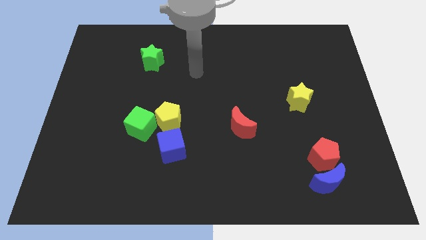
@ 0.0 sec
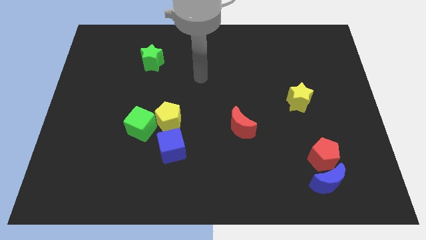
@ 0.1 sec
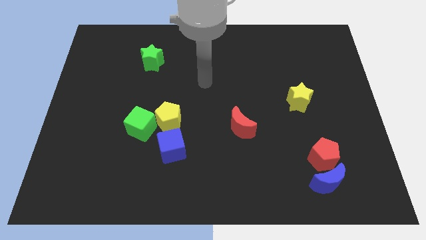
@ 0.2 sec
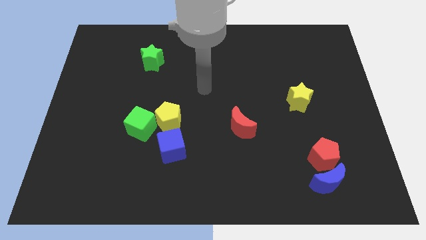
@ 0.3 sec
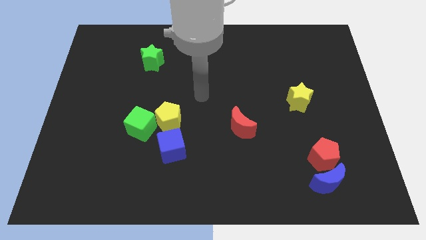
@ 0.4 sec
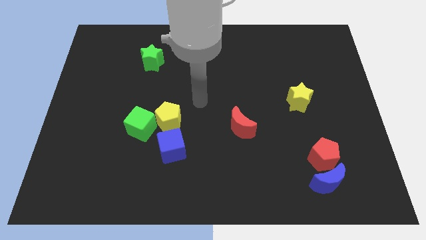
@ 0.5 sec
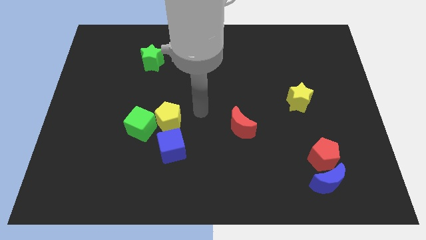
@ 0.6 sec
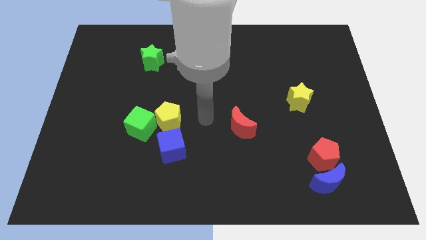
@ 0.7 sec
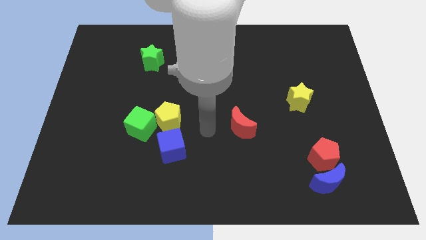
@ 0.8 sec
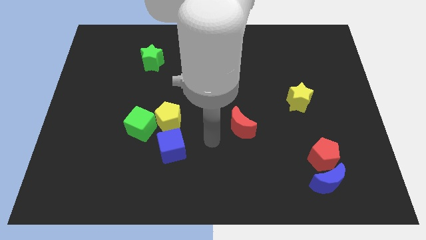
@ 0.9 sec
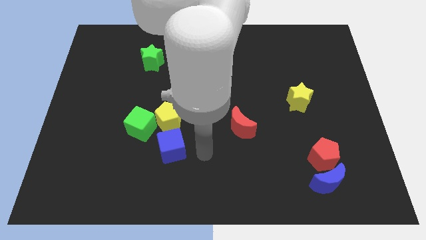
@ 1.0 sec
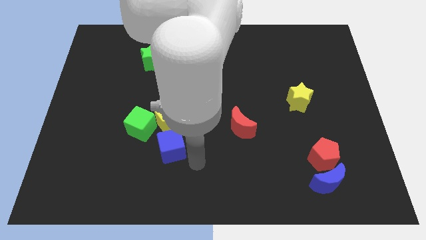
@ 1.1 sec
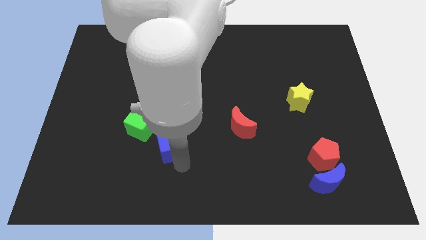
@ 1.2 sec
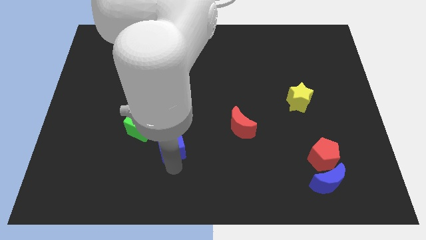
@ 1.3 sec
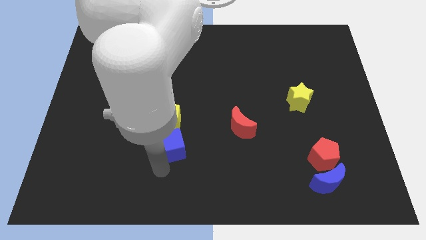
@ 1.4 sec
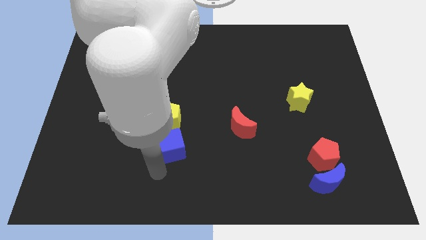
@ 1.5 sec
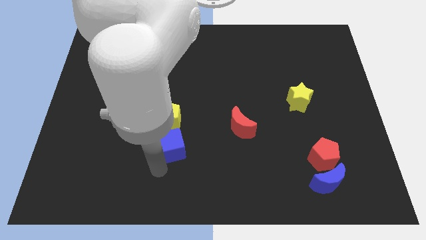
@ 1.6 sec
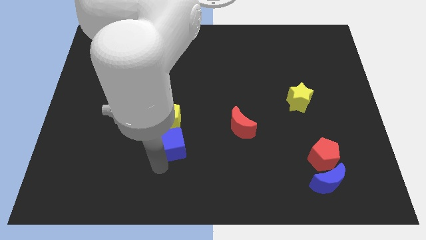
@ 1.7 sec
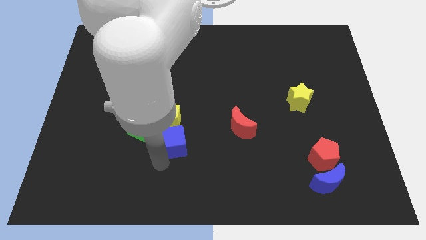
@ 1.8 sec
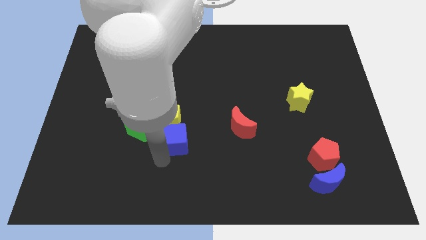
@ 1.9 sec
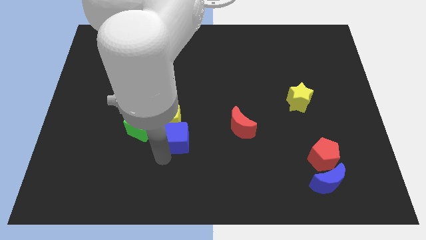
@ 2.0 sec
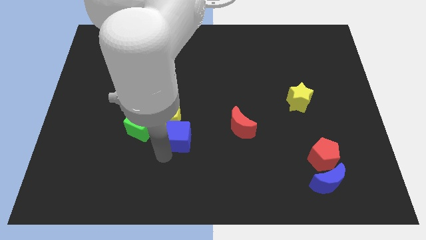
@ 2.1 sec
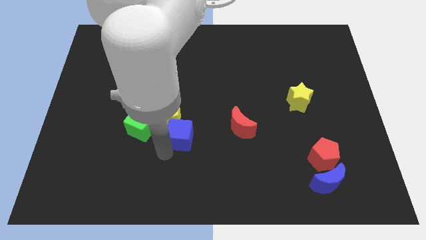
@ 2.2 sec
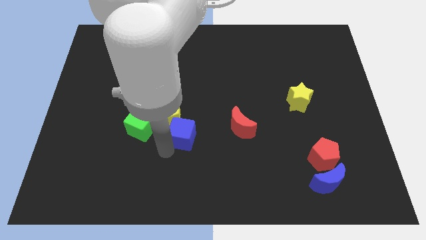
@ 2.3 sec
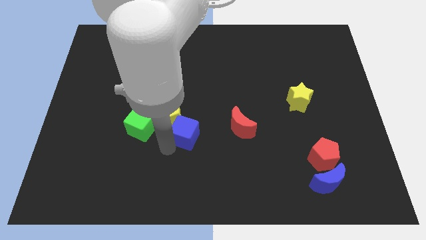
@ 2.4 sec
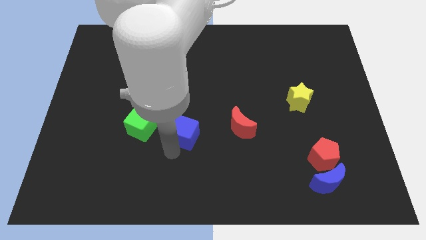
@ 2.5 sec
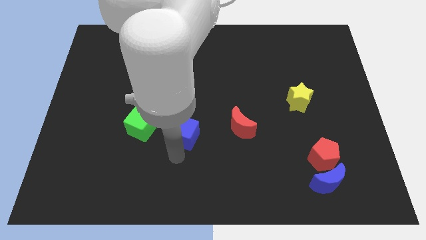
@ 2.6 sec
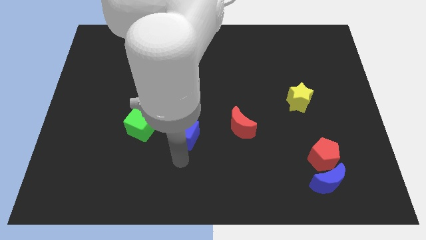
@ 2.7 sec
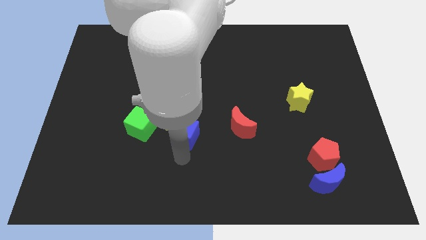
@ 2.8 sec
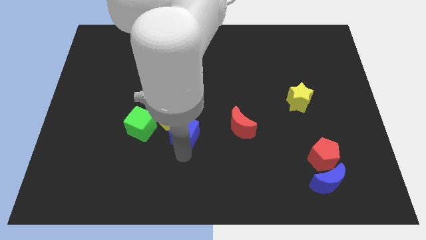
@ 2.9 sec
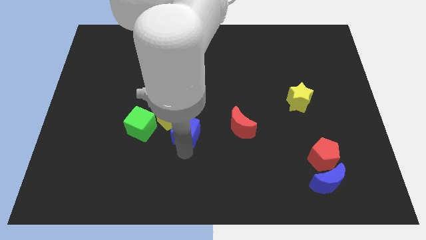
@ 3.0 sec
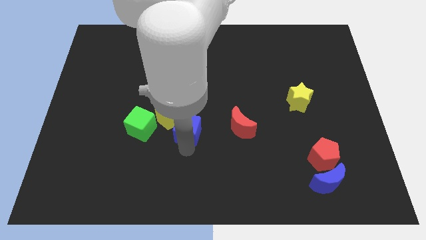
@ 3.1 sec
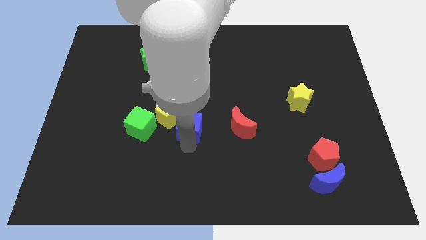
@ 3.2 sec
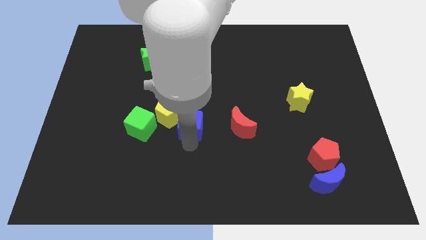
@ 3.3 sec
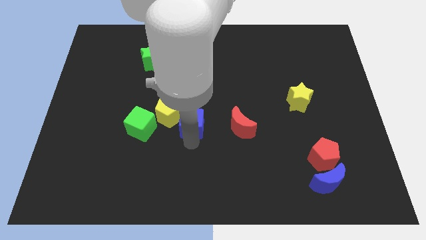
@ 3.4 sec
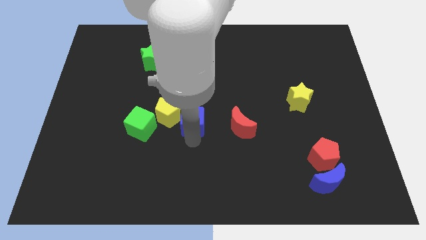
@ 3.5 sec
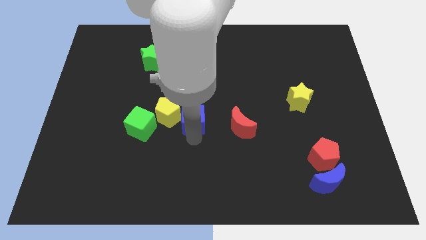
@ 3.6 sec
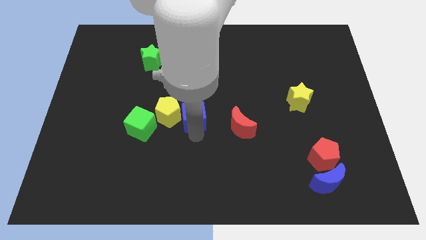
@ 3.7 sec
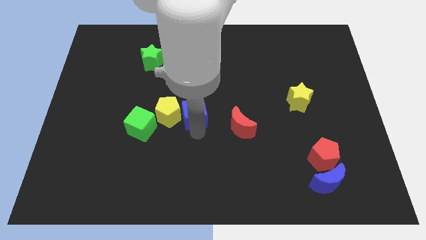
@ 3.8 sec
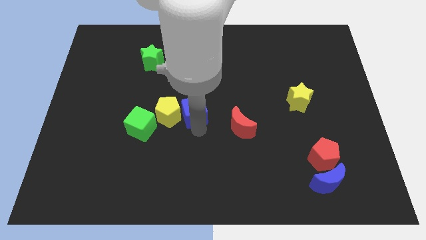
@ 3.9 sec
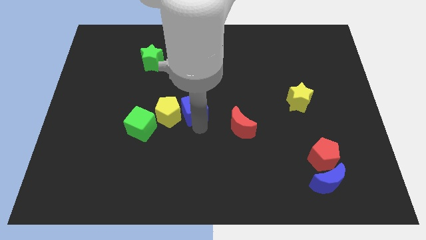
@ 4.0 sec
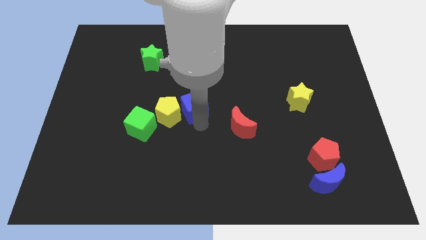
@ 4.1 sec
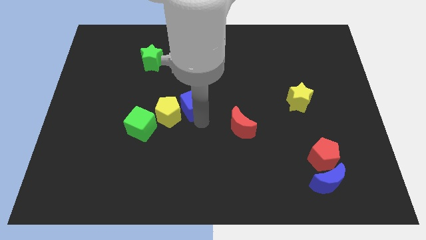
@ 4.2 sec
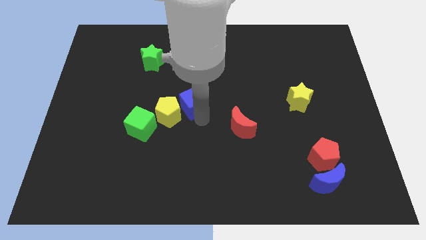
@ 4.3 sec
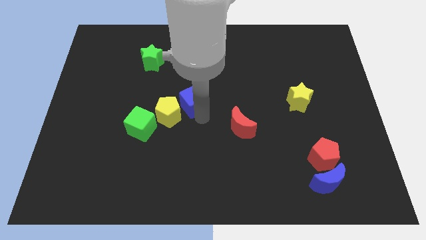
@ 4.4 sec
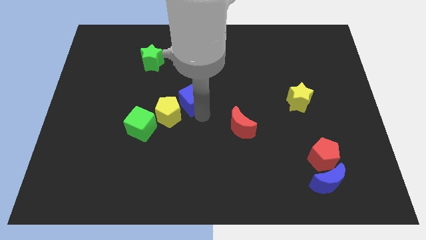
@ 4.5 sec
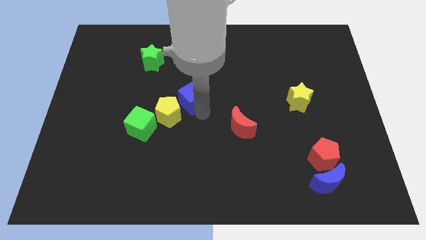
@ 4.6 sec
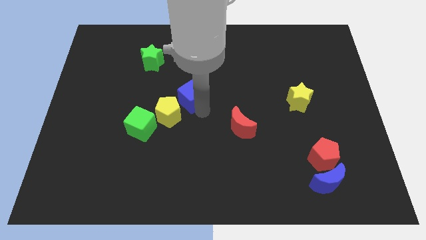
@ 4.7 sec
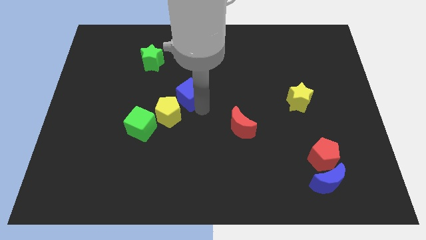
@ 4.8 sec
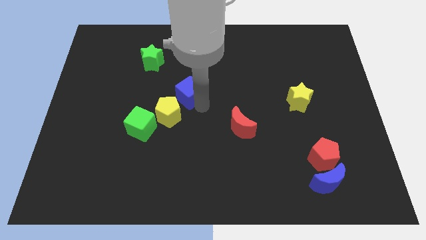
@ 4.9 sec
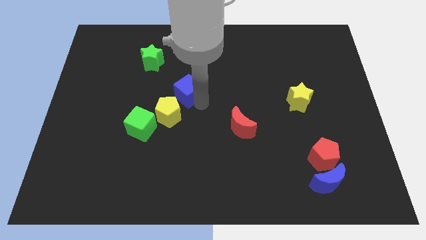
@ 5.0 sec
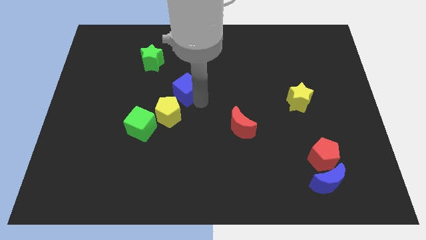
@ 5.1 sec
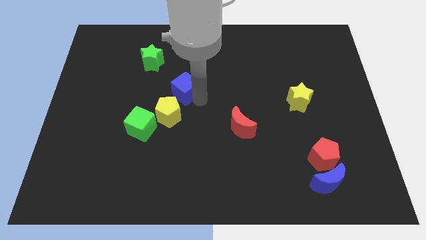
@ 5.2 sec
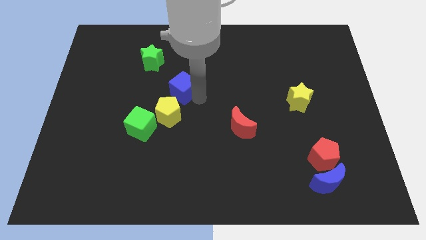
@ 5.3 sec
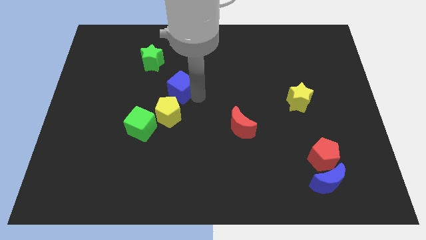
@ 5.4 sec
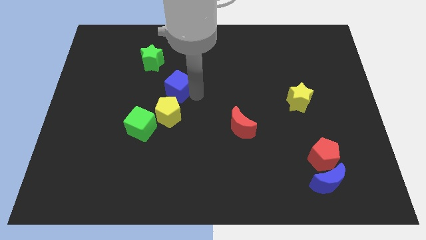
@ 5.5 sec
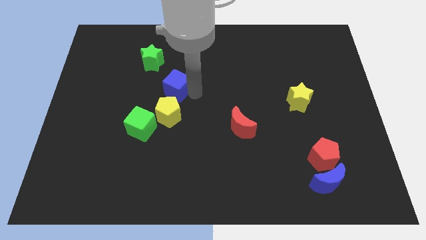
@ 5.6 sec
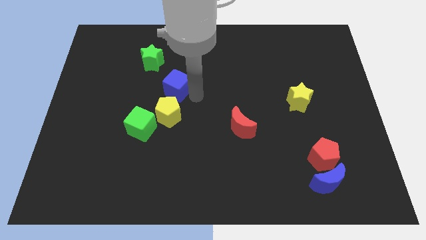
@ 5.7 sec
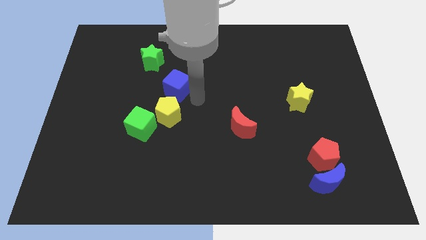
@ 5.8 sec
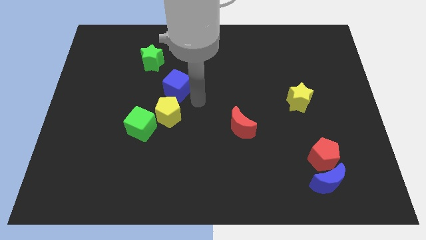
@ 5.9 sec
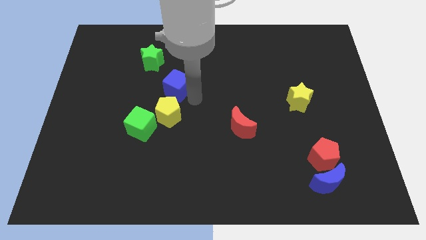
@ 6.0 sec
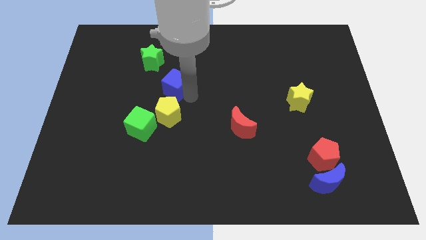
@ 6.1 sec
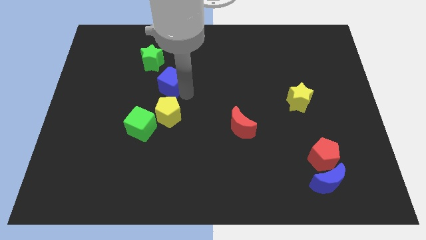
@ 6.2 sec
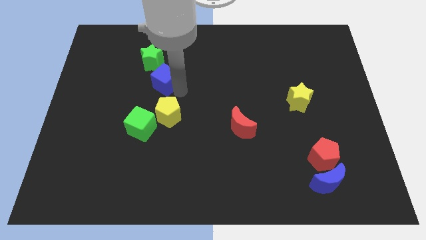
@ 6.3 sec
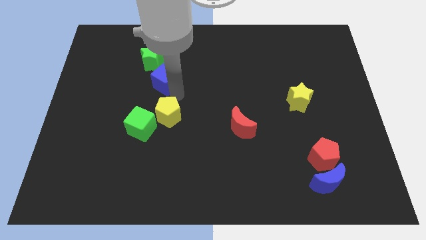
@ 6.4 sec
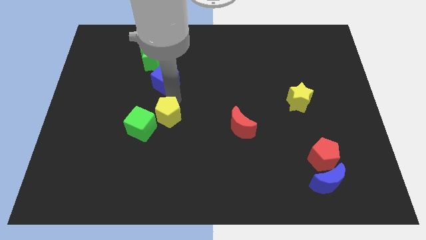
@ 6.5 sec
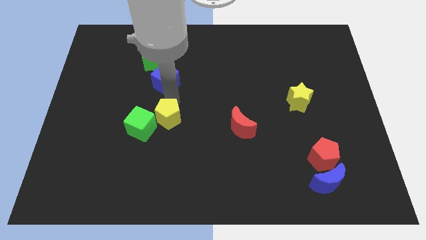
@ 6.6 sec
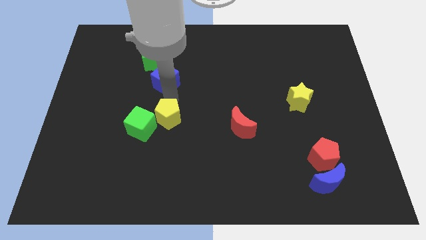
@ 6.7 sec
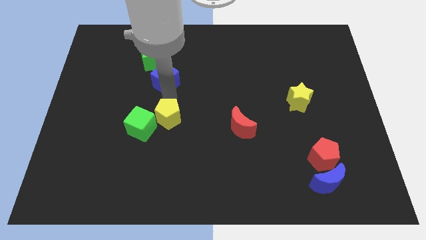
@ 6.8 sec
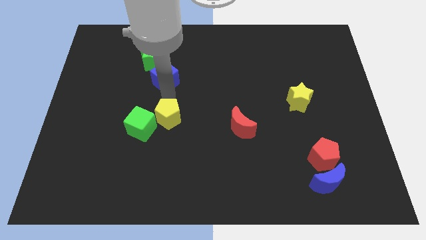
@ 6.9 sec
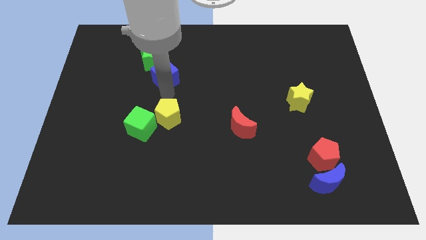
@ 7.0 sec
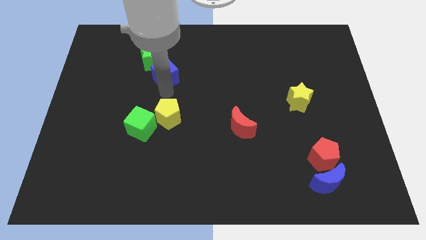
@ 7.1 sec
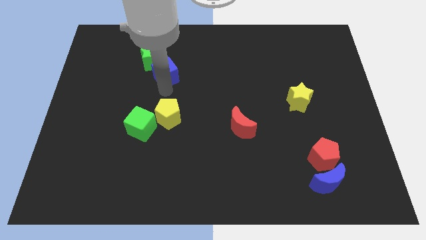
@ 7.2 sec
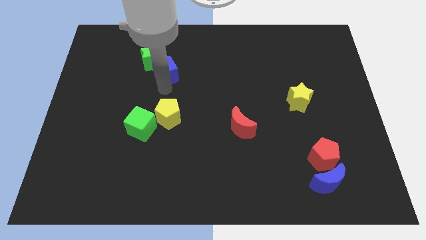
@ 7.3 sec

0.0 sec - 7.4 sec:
slide the blue cube towards the green star
